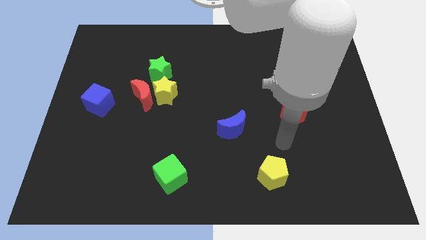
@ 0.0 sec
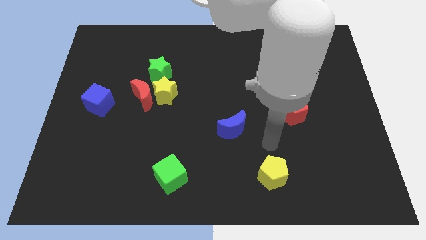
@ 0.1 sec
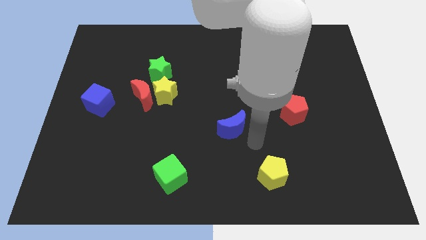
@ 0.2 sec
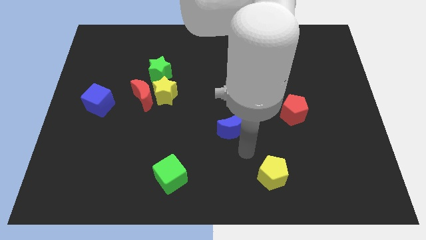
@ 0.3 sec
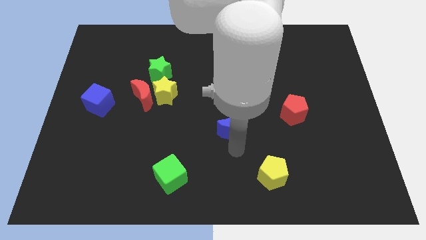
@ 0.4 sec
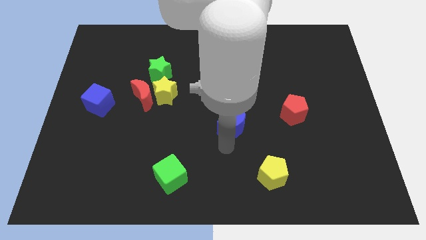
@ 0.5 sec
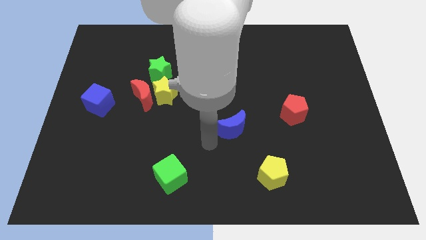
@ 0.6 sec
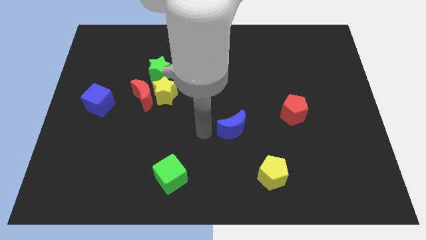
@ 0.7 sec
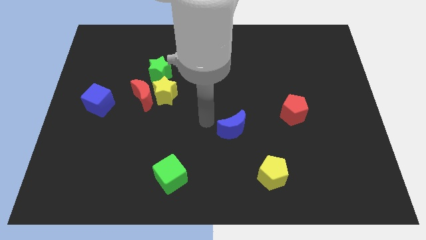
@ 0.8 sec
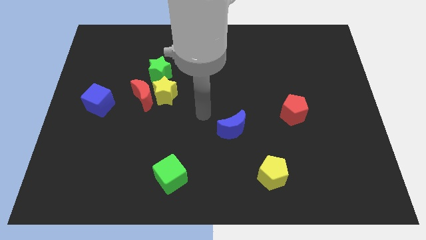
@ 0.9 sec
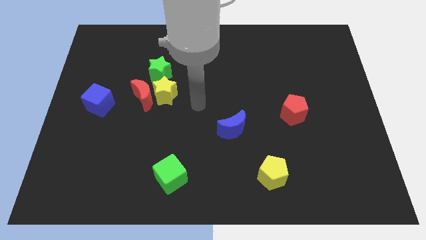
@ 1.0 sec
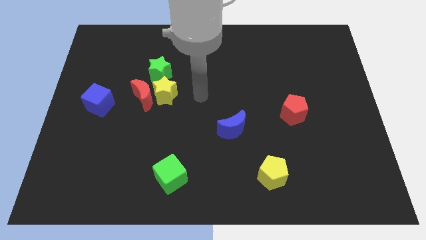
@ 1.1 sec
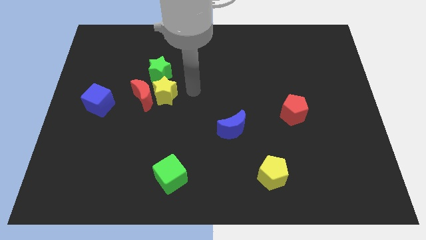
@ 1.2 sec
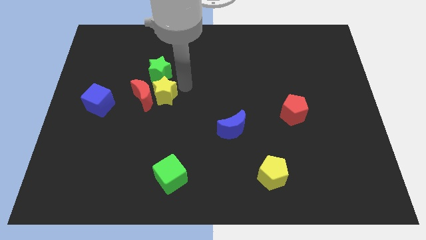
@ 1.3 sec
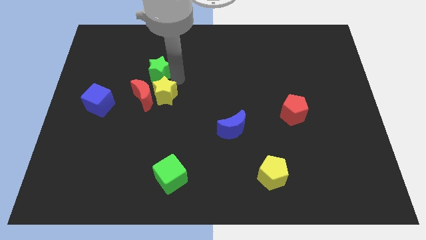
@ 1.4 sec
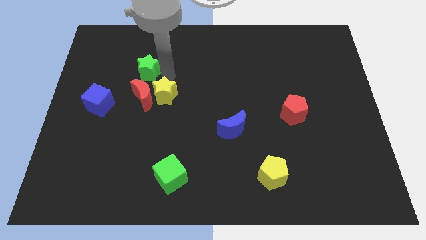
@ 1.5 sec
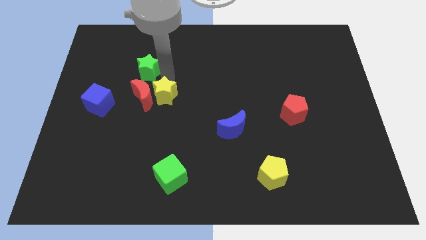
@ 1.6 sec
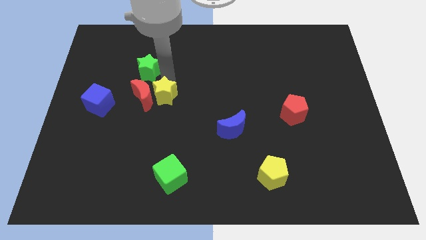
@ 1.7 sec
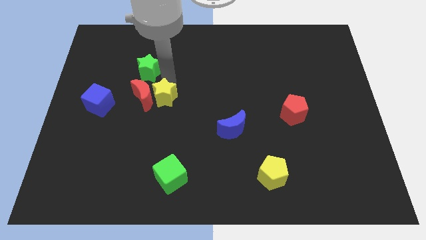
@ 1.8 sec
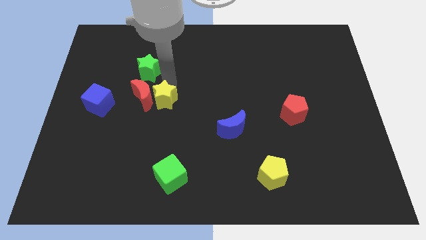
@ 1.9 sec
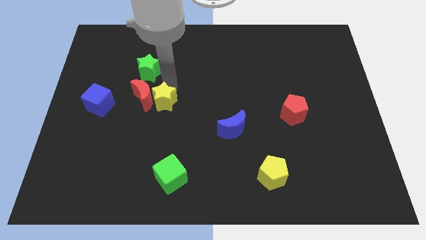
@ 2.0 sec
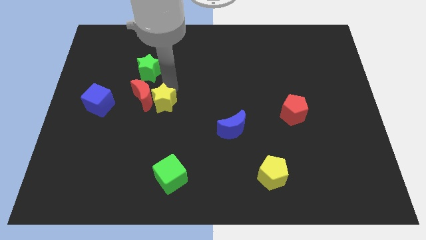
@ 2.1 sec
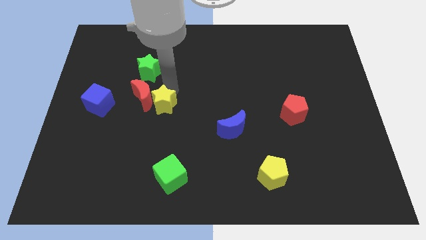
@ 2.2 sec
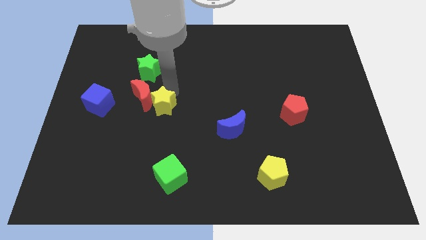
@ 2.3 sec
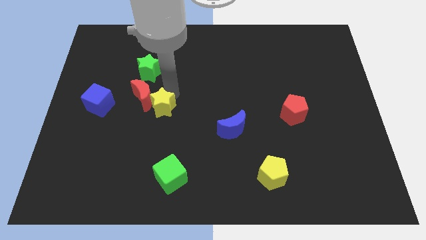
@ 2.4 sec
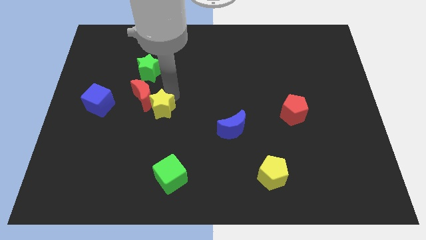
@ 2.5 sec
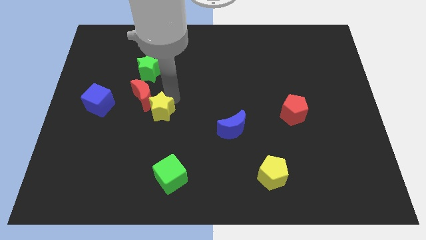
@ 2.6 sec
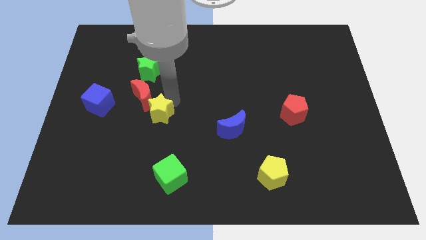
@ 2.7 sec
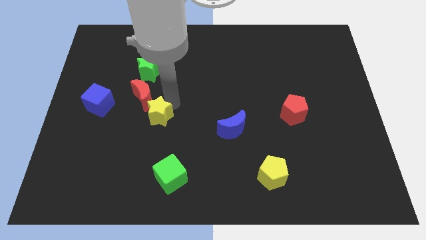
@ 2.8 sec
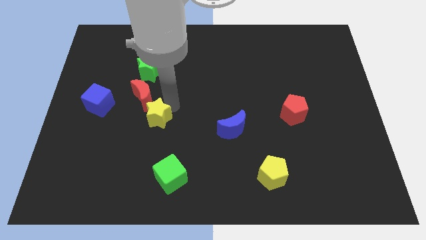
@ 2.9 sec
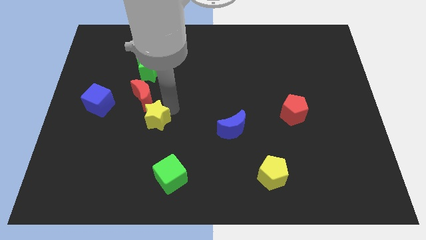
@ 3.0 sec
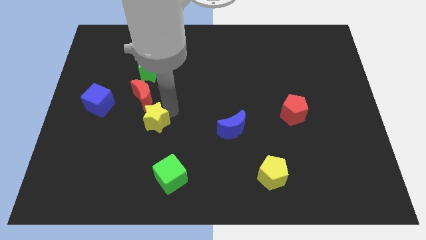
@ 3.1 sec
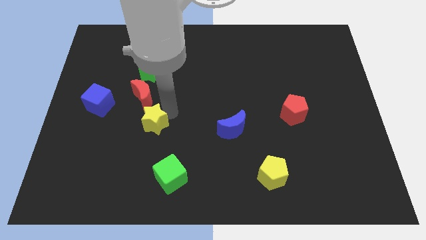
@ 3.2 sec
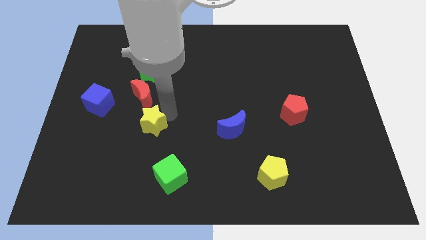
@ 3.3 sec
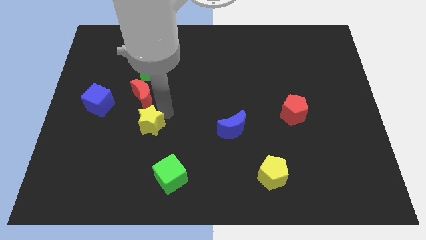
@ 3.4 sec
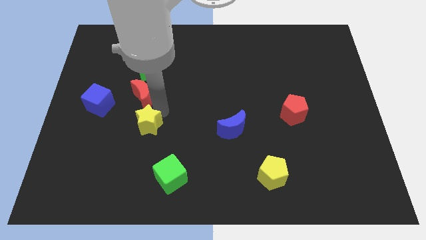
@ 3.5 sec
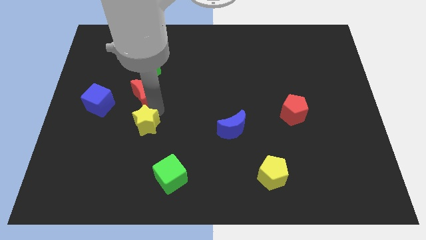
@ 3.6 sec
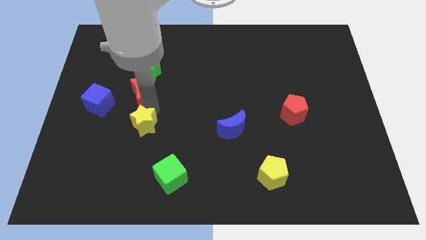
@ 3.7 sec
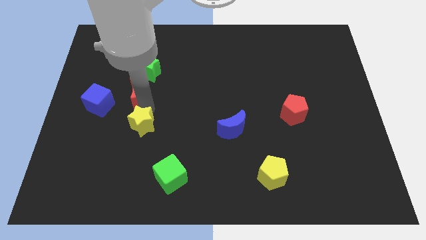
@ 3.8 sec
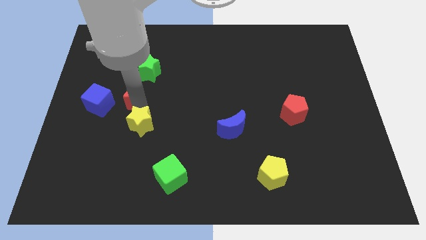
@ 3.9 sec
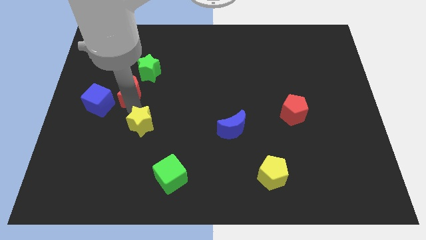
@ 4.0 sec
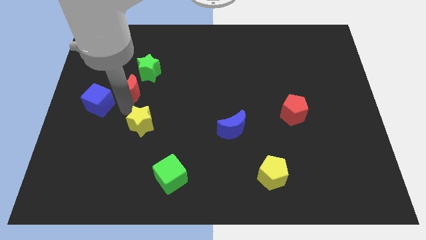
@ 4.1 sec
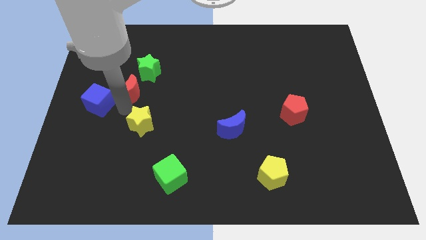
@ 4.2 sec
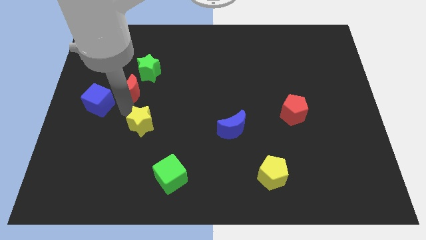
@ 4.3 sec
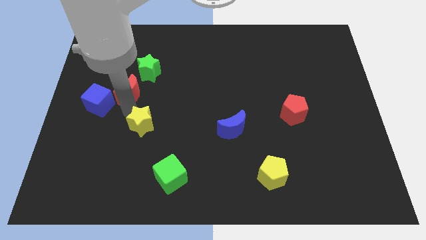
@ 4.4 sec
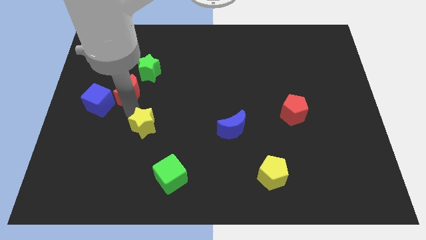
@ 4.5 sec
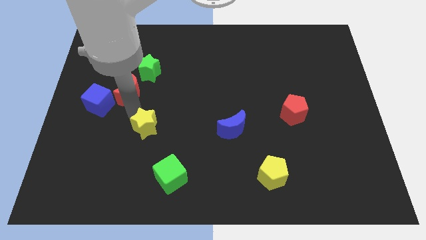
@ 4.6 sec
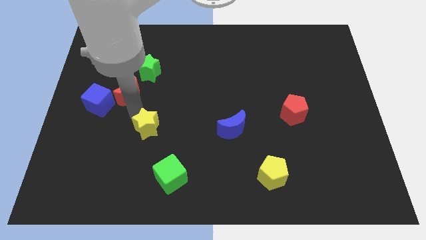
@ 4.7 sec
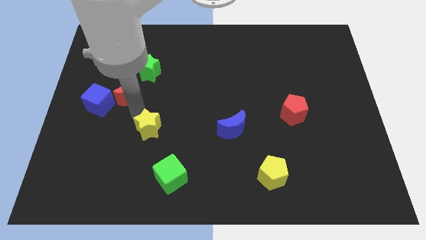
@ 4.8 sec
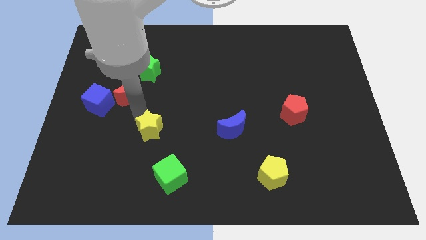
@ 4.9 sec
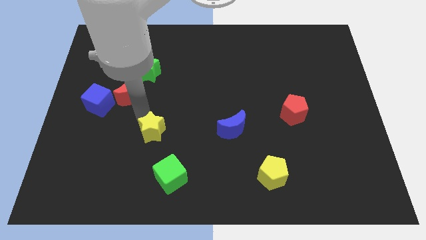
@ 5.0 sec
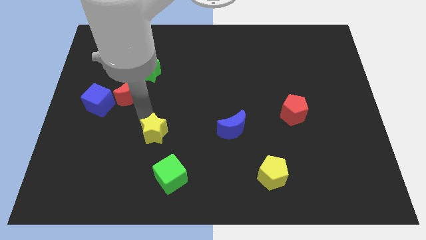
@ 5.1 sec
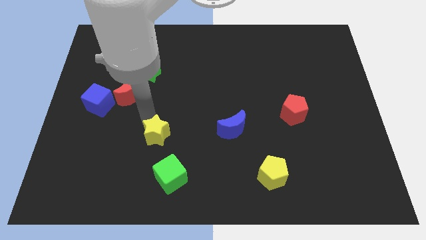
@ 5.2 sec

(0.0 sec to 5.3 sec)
slide the yellow star to the top left of the green cube

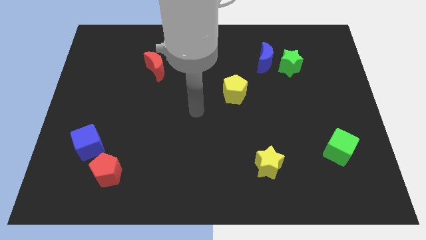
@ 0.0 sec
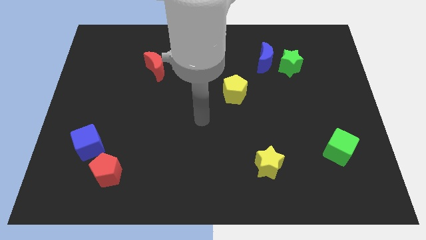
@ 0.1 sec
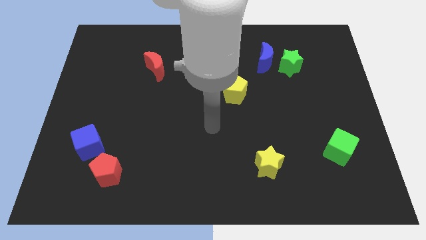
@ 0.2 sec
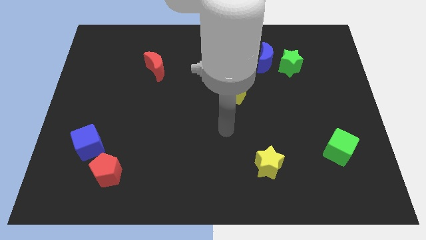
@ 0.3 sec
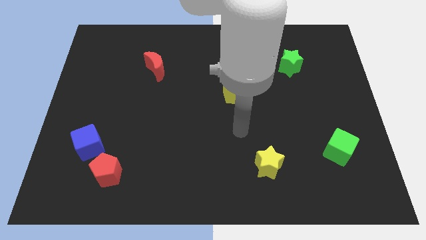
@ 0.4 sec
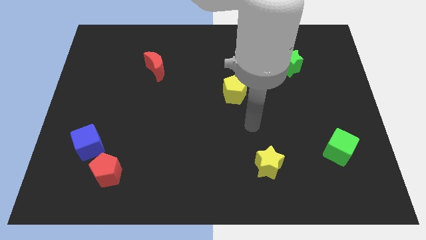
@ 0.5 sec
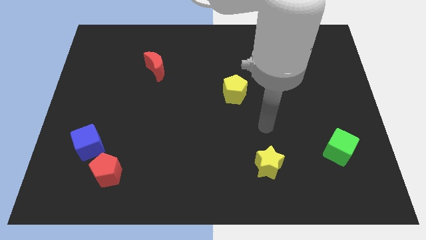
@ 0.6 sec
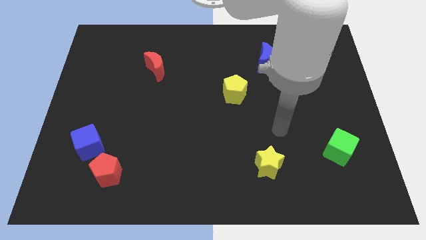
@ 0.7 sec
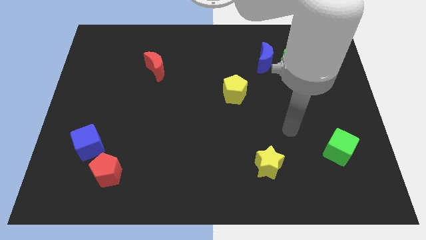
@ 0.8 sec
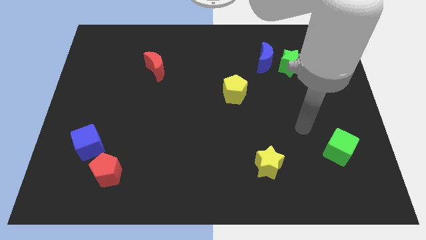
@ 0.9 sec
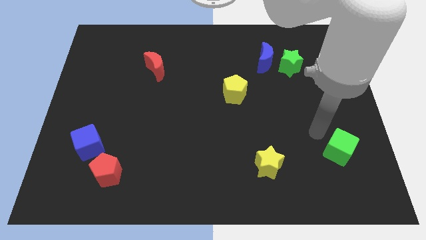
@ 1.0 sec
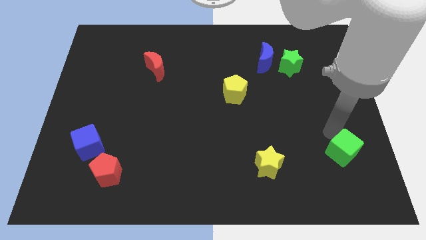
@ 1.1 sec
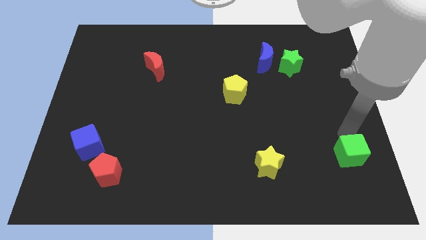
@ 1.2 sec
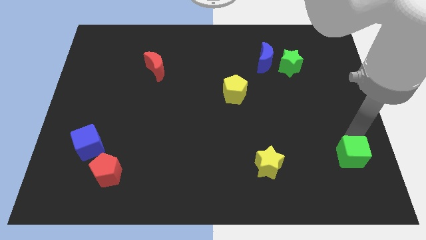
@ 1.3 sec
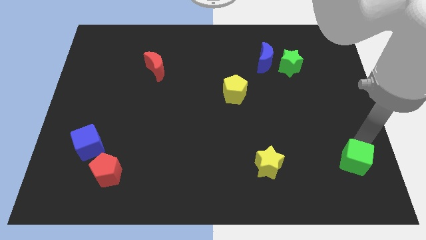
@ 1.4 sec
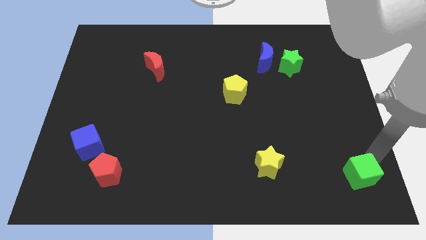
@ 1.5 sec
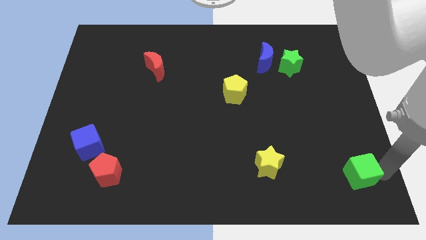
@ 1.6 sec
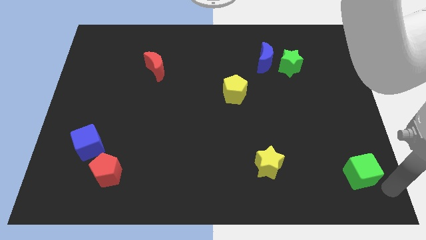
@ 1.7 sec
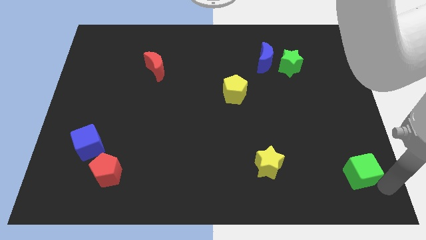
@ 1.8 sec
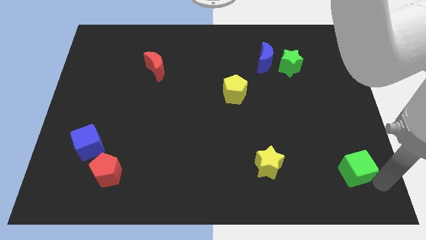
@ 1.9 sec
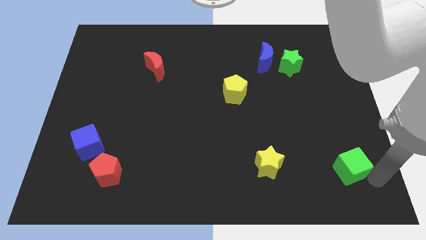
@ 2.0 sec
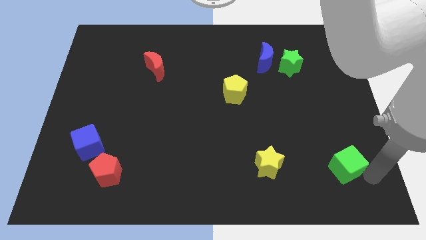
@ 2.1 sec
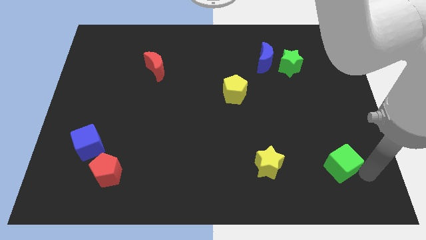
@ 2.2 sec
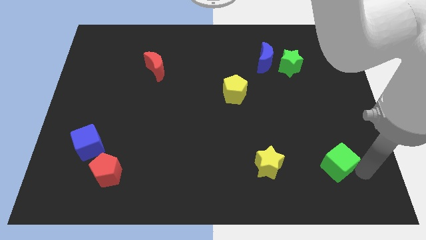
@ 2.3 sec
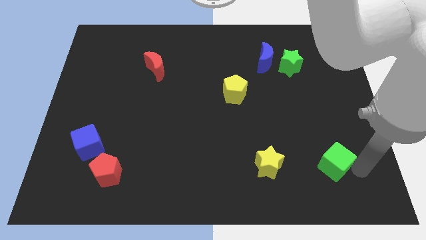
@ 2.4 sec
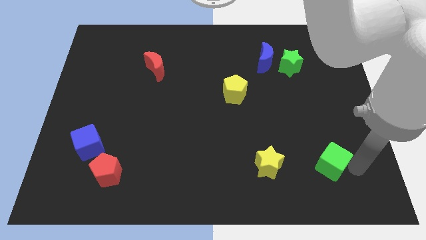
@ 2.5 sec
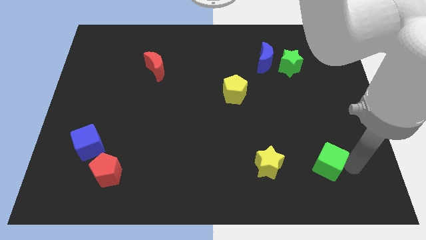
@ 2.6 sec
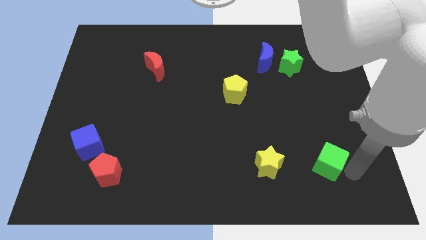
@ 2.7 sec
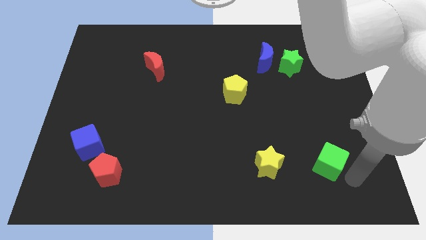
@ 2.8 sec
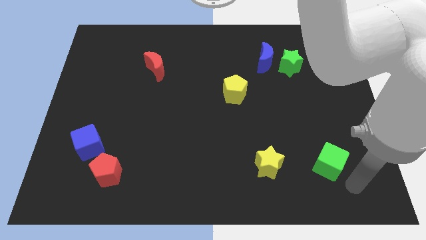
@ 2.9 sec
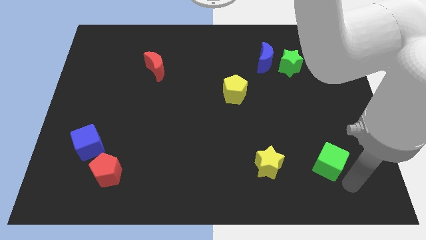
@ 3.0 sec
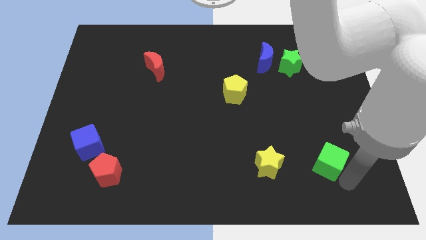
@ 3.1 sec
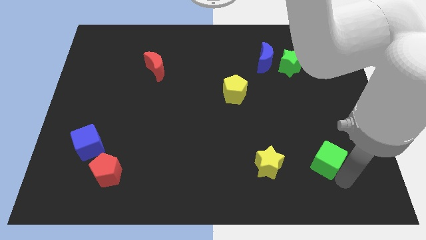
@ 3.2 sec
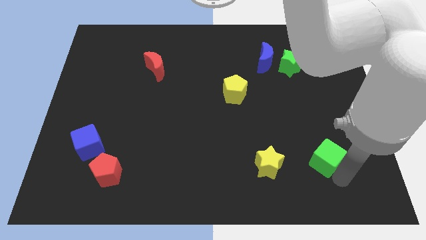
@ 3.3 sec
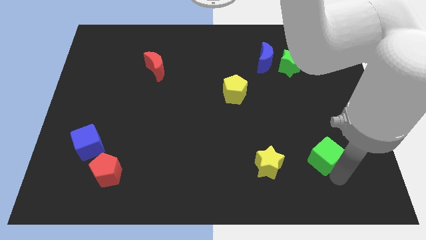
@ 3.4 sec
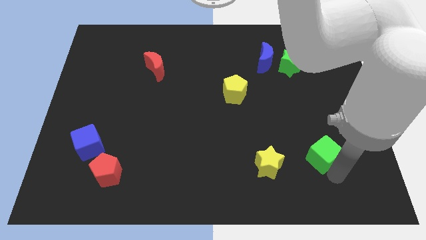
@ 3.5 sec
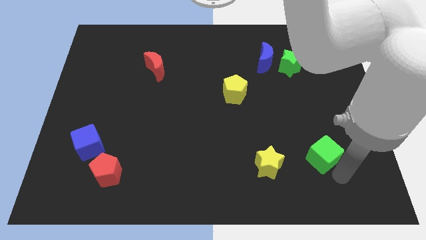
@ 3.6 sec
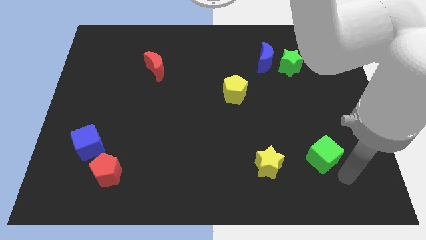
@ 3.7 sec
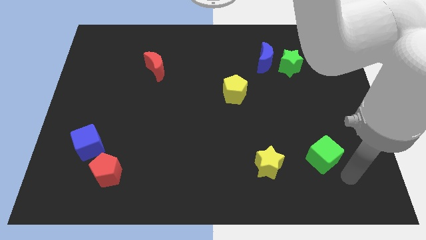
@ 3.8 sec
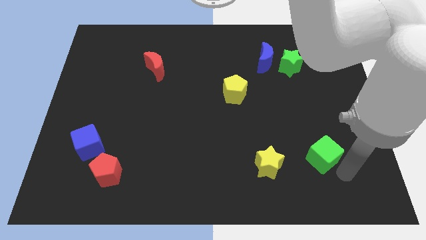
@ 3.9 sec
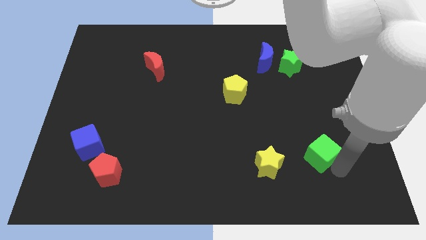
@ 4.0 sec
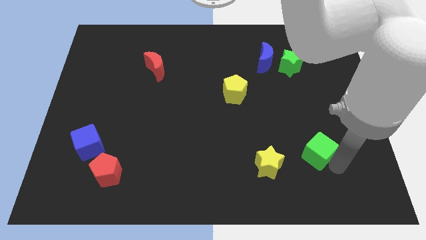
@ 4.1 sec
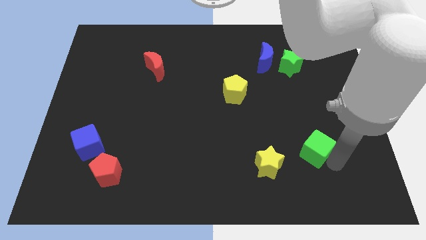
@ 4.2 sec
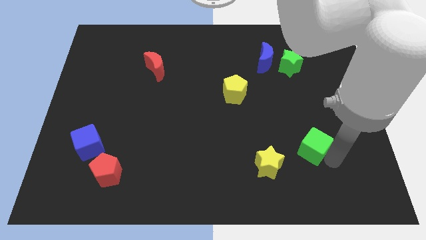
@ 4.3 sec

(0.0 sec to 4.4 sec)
move the green cube to the top right of the yellow star
